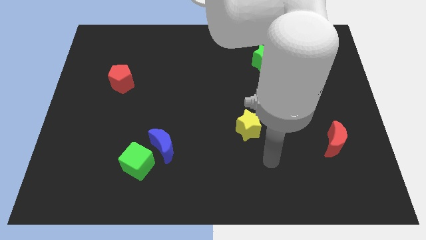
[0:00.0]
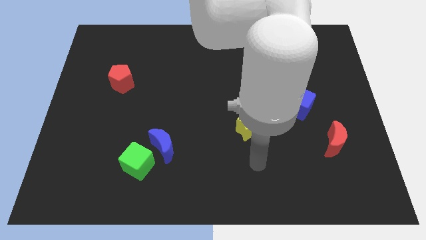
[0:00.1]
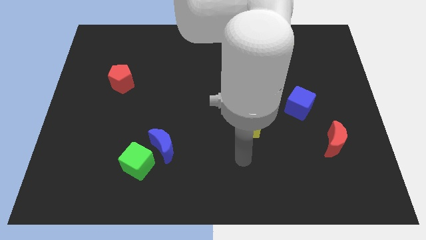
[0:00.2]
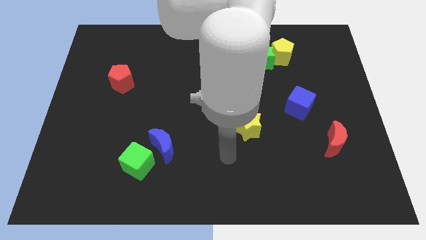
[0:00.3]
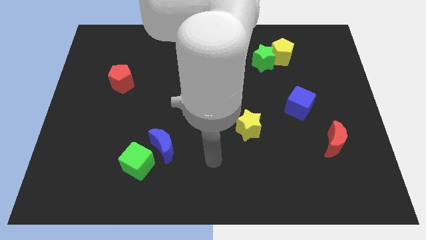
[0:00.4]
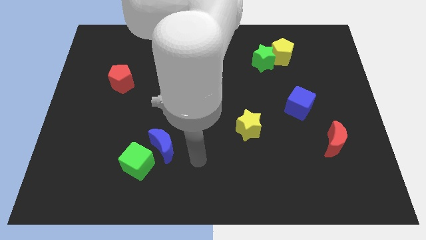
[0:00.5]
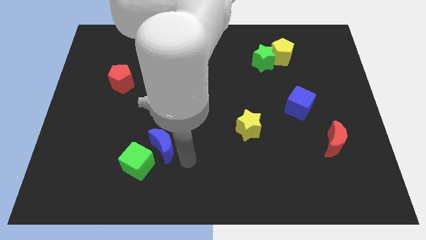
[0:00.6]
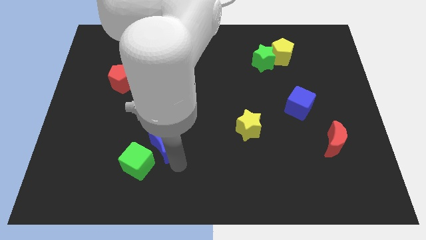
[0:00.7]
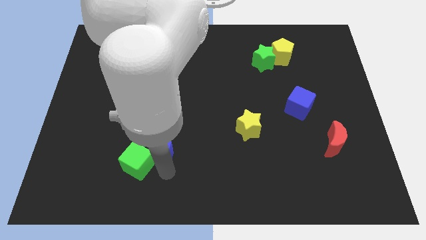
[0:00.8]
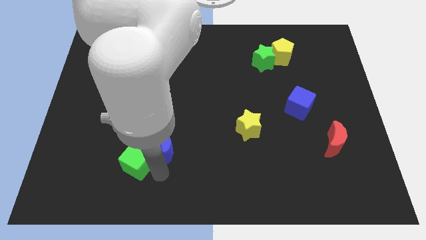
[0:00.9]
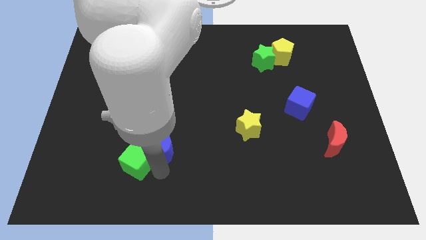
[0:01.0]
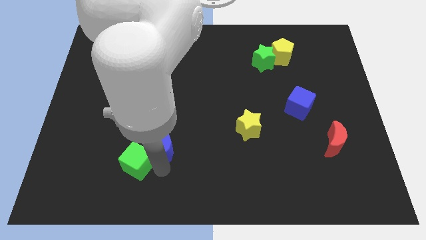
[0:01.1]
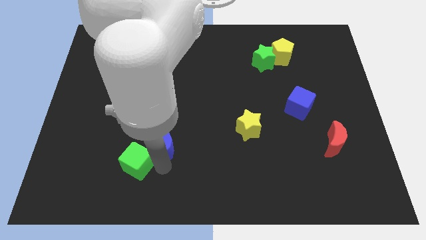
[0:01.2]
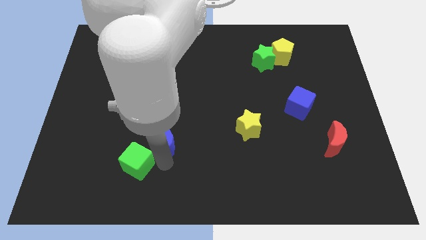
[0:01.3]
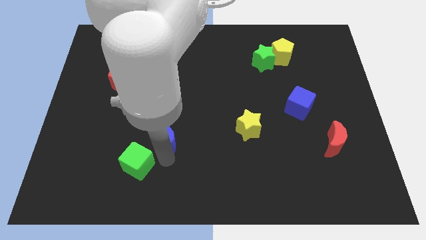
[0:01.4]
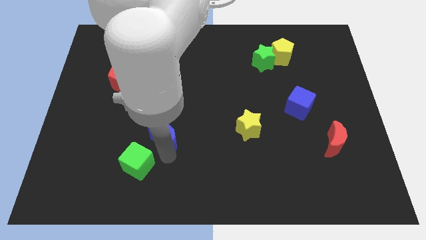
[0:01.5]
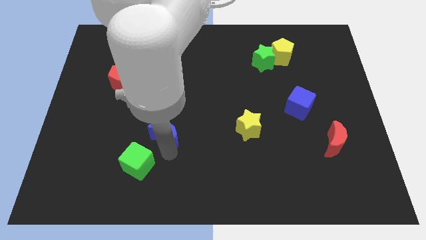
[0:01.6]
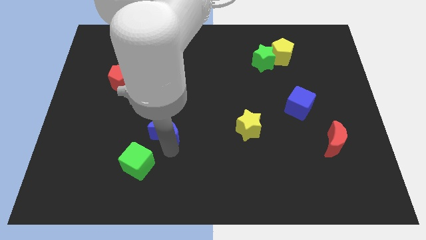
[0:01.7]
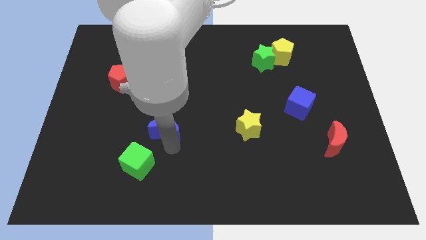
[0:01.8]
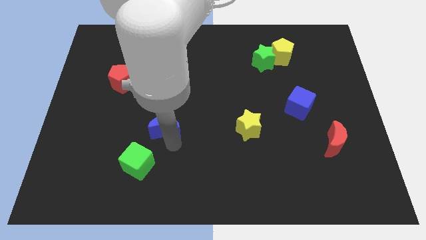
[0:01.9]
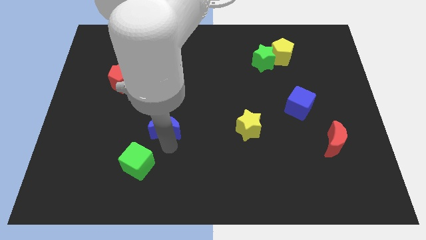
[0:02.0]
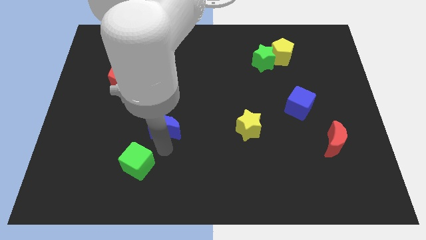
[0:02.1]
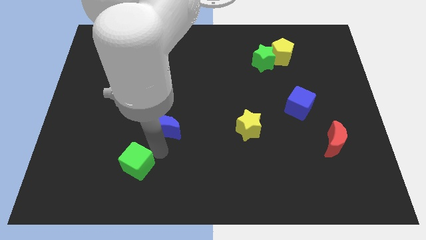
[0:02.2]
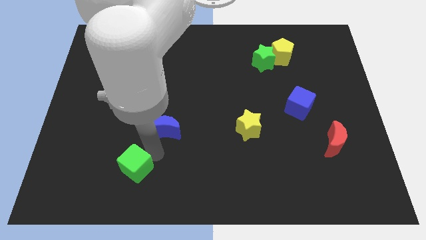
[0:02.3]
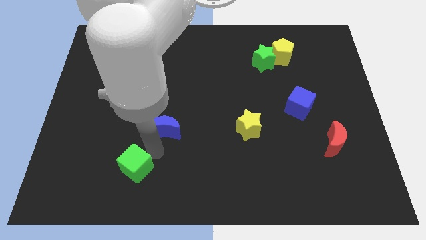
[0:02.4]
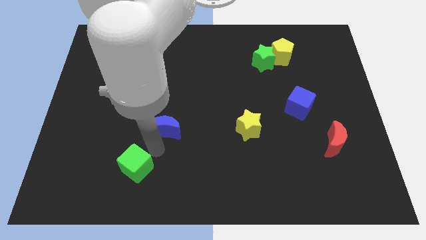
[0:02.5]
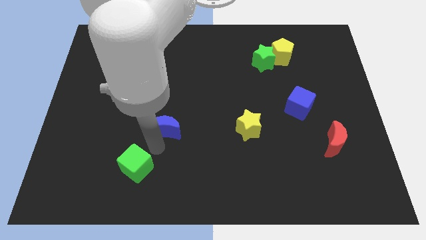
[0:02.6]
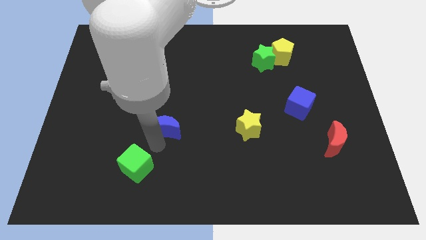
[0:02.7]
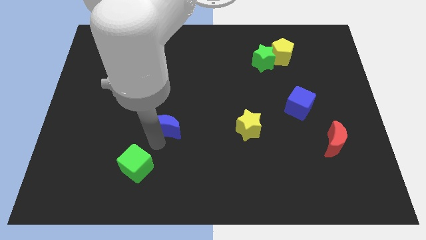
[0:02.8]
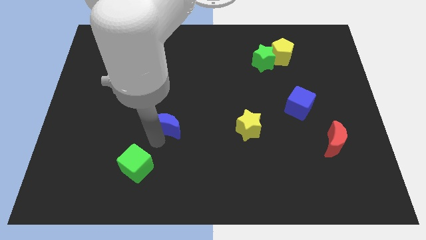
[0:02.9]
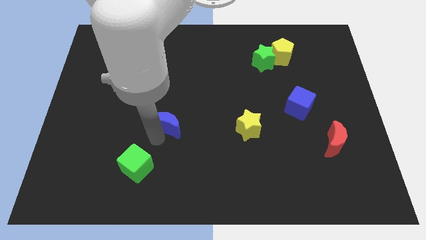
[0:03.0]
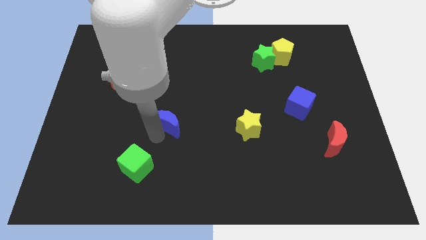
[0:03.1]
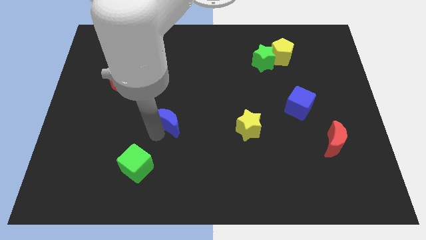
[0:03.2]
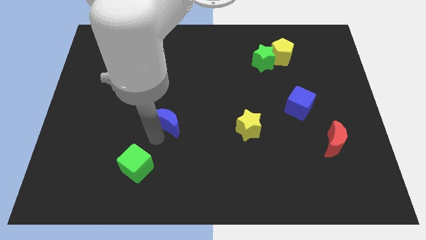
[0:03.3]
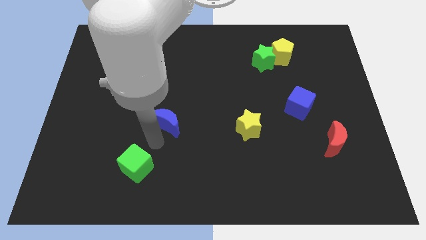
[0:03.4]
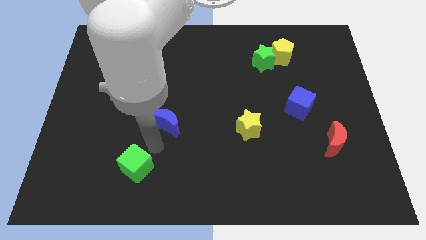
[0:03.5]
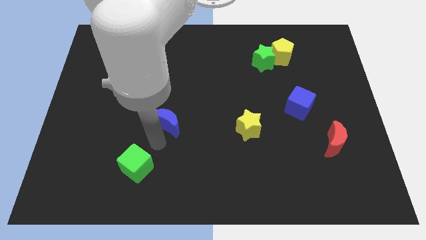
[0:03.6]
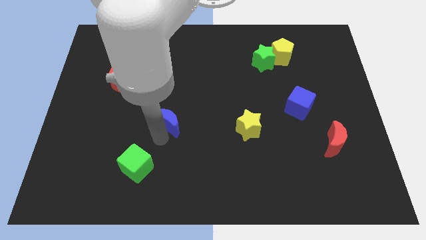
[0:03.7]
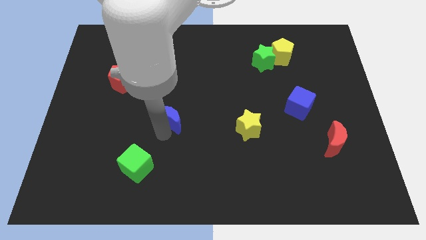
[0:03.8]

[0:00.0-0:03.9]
move the blue moon a little upwards

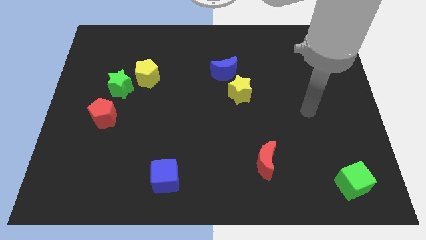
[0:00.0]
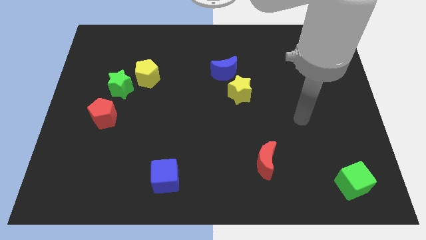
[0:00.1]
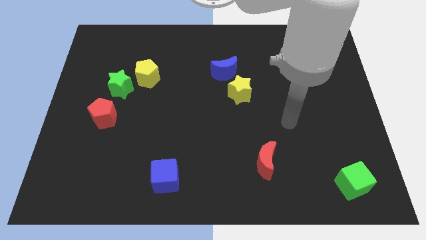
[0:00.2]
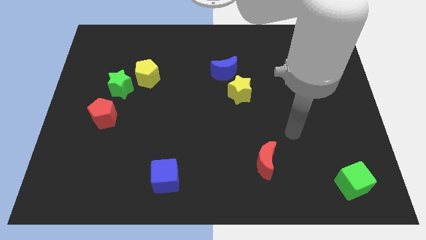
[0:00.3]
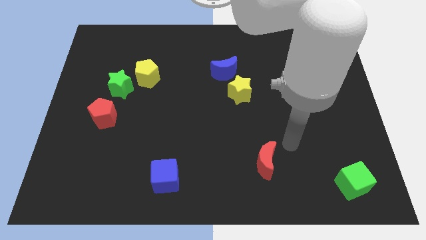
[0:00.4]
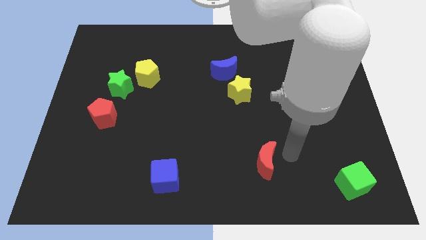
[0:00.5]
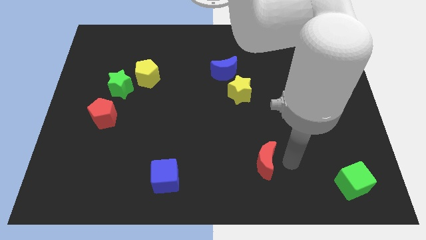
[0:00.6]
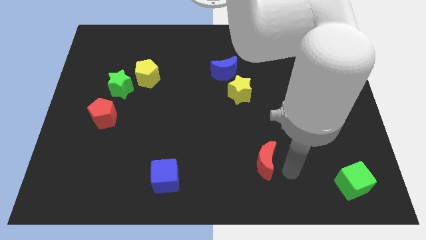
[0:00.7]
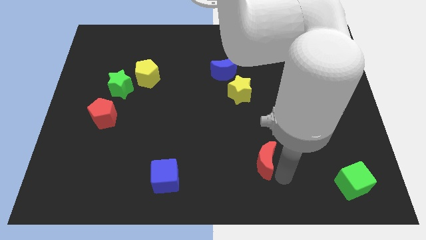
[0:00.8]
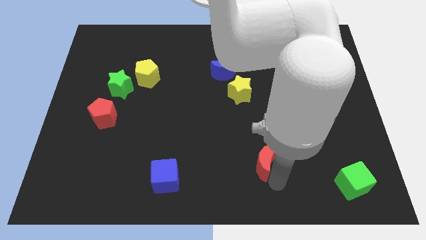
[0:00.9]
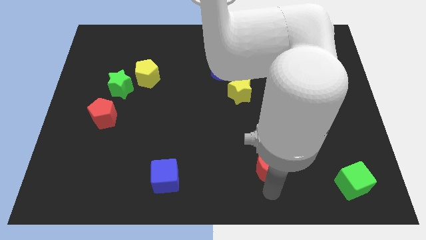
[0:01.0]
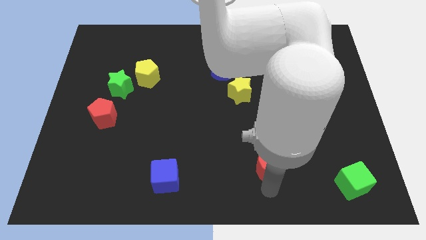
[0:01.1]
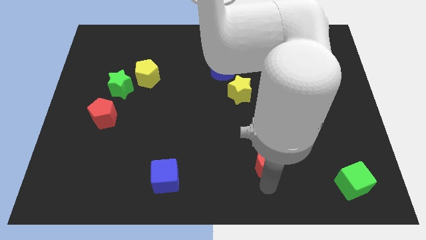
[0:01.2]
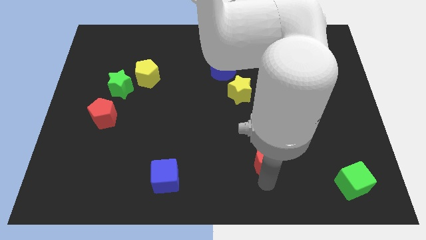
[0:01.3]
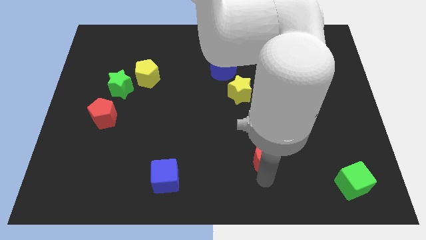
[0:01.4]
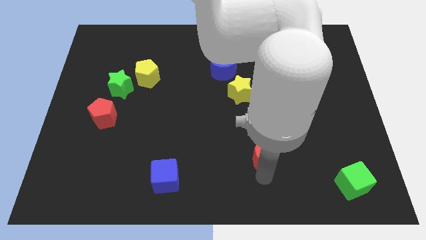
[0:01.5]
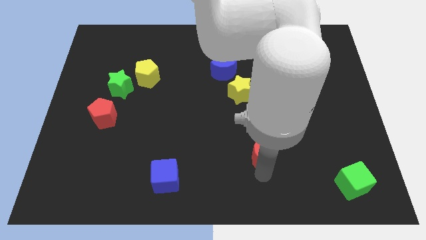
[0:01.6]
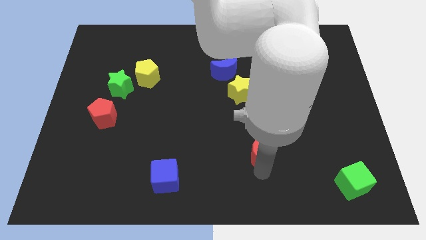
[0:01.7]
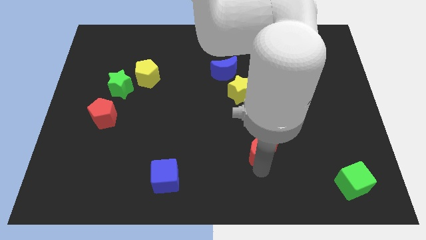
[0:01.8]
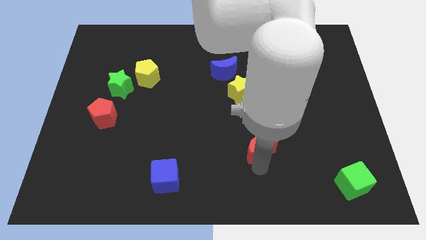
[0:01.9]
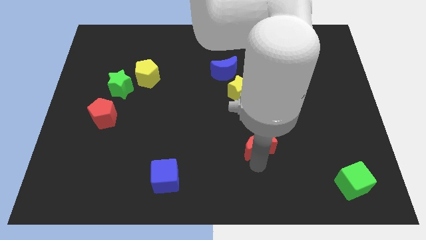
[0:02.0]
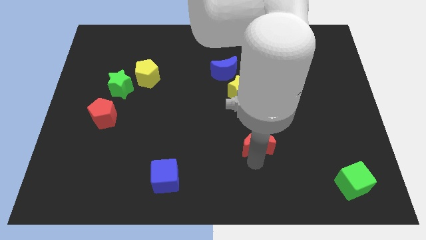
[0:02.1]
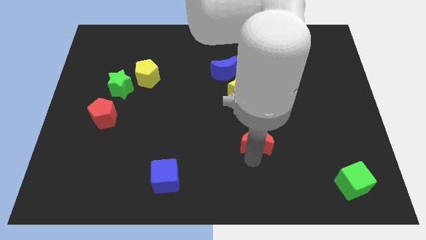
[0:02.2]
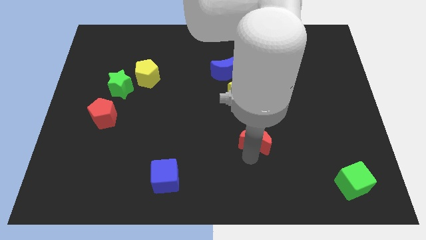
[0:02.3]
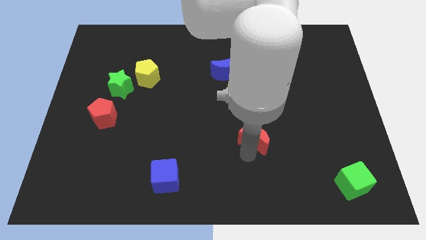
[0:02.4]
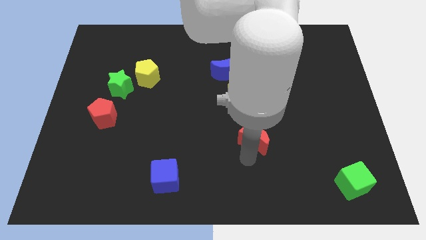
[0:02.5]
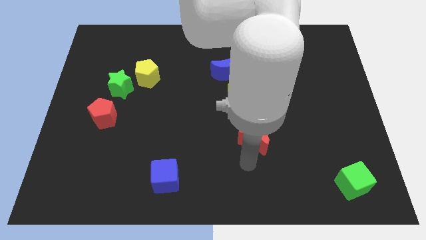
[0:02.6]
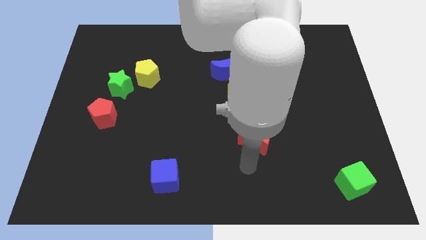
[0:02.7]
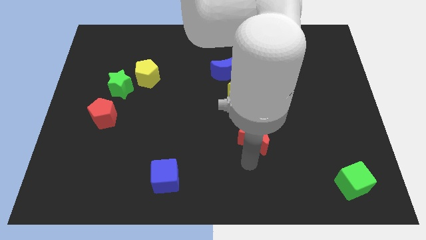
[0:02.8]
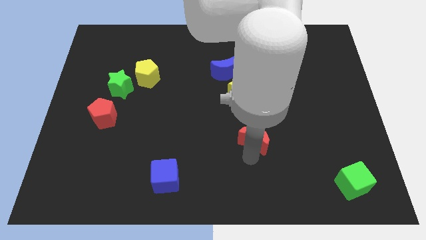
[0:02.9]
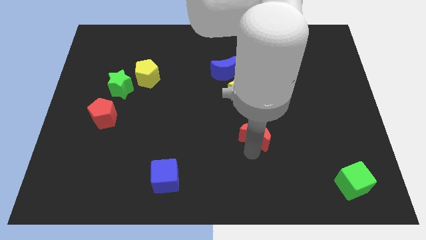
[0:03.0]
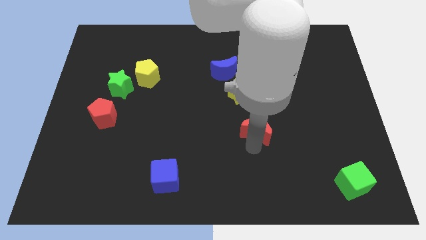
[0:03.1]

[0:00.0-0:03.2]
slightly move the red moon upwards
